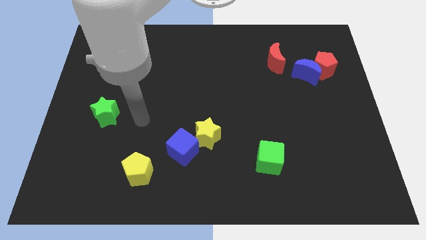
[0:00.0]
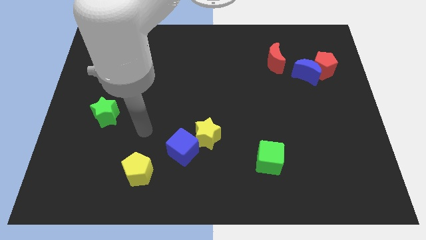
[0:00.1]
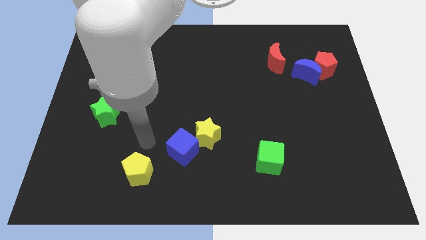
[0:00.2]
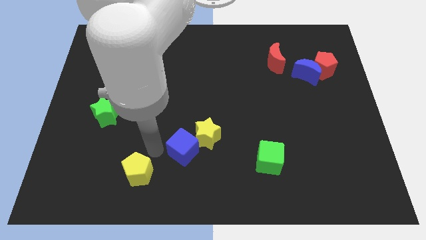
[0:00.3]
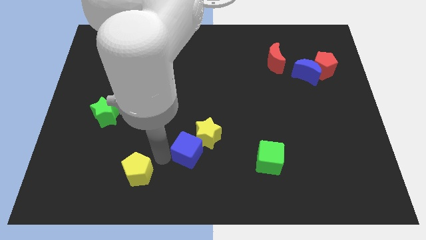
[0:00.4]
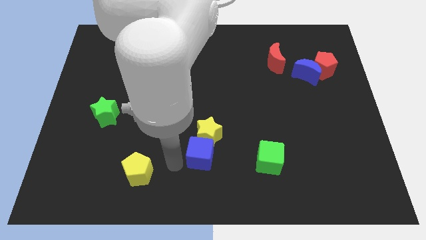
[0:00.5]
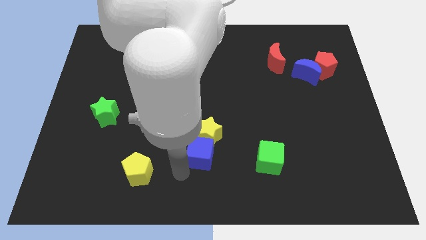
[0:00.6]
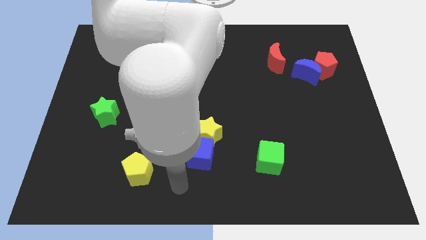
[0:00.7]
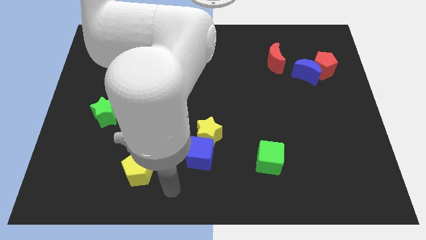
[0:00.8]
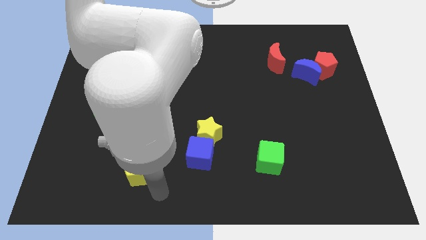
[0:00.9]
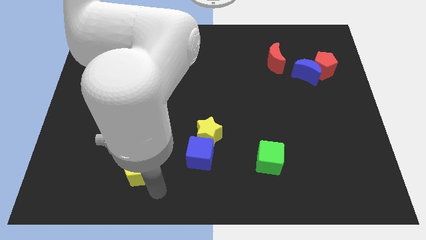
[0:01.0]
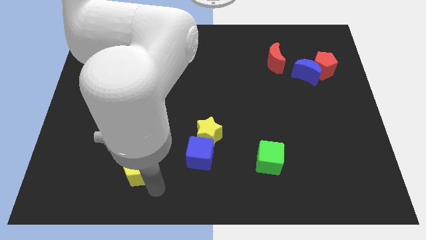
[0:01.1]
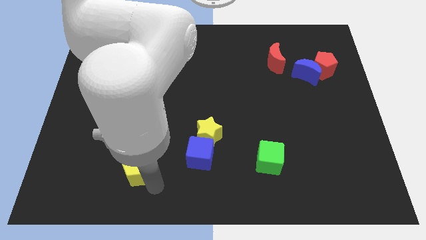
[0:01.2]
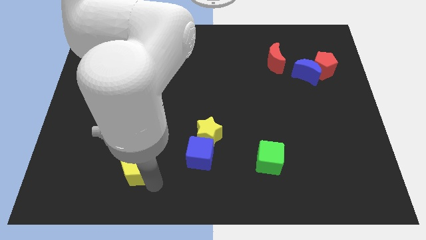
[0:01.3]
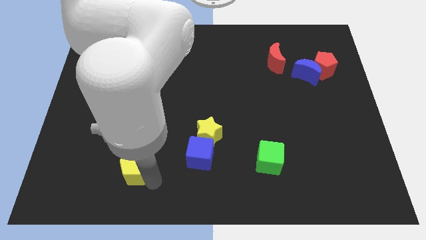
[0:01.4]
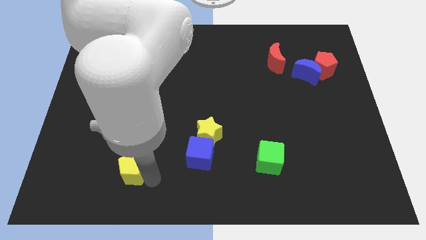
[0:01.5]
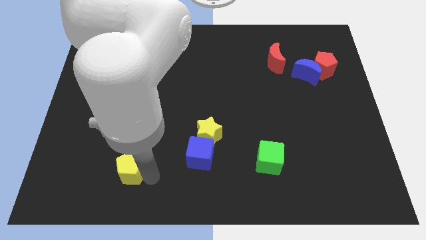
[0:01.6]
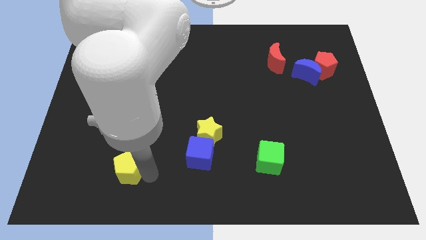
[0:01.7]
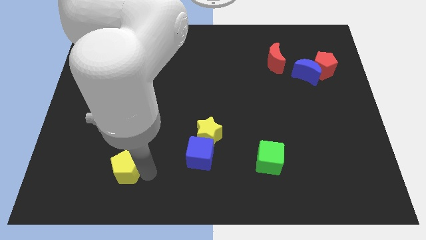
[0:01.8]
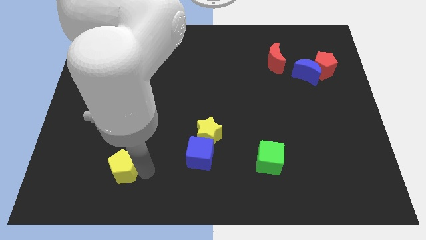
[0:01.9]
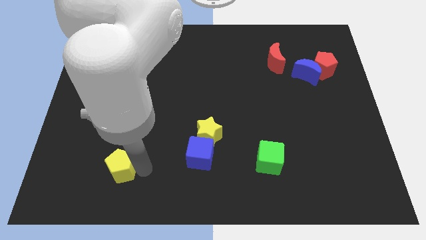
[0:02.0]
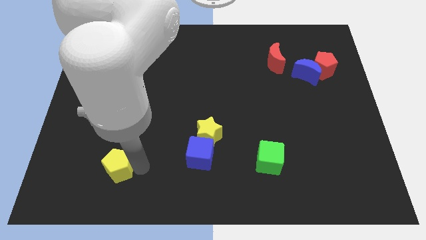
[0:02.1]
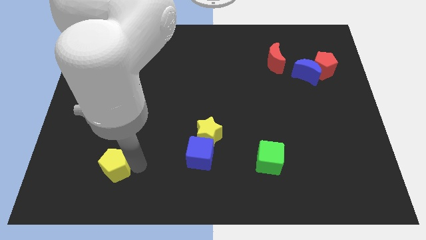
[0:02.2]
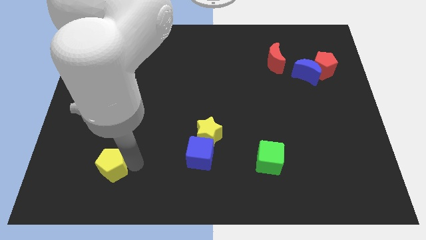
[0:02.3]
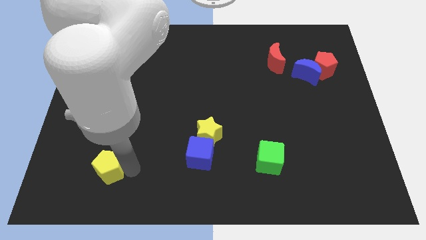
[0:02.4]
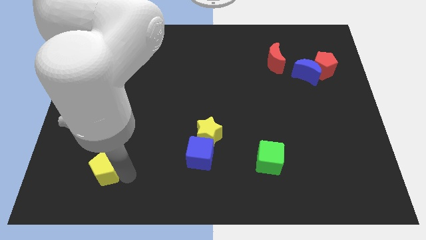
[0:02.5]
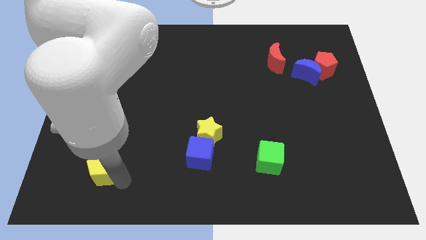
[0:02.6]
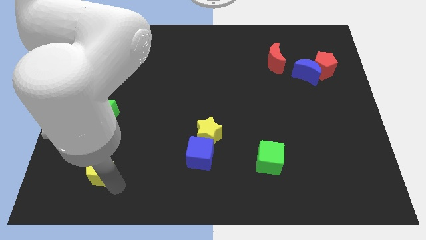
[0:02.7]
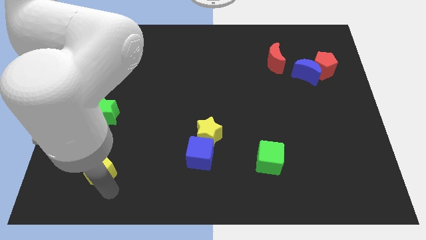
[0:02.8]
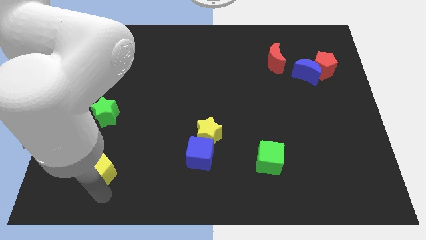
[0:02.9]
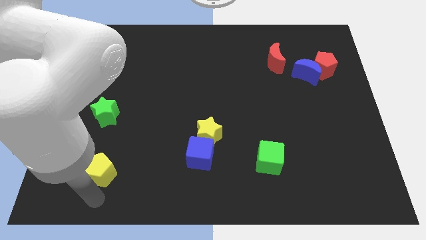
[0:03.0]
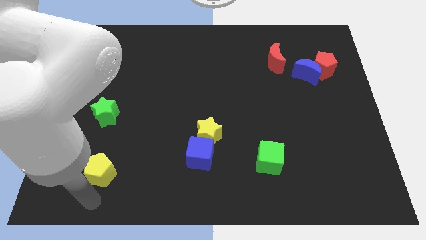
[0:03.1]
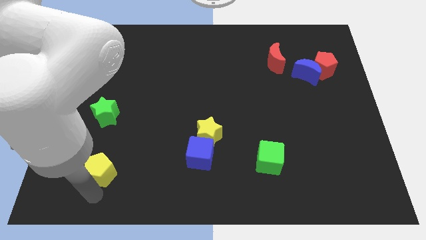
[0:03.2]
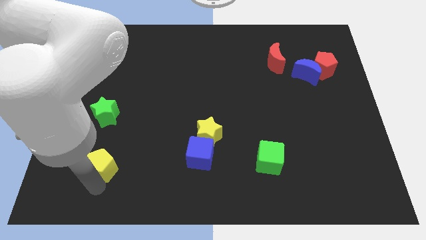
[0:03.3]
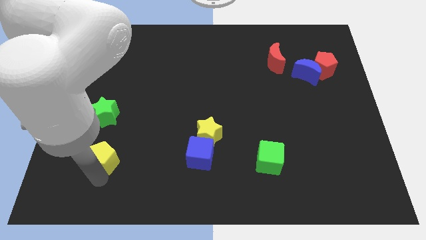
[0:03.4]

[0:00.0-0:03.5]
slightly push the yellow pentagon up and to the left

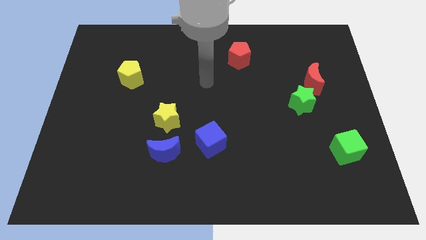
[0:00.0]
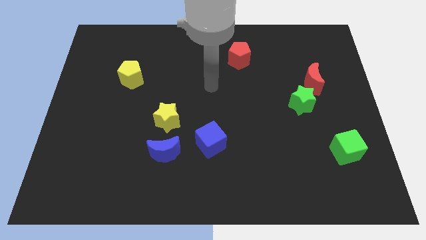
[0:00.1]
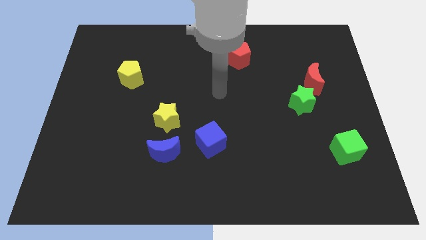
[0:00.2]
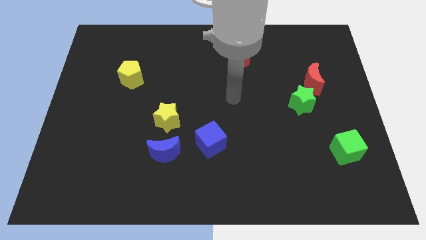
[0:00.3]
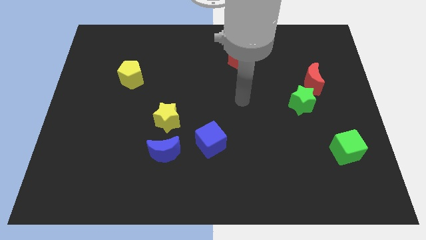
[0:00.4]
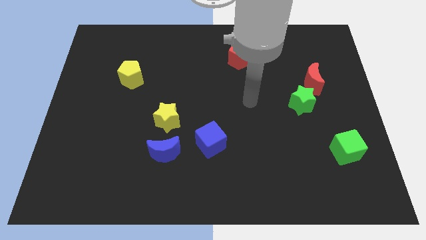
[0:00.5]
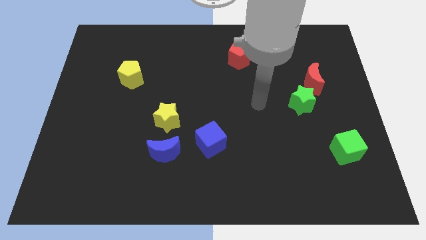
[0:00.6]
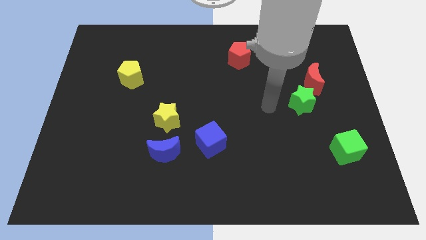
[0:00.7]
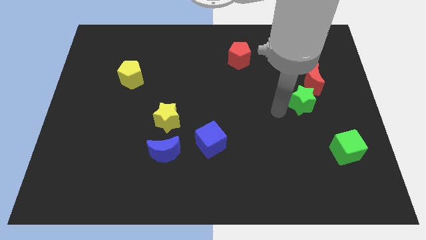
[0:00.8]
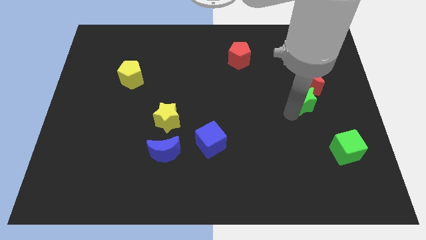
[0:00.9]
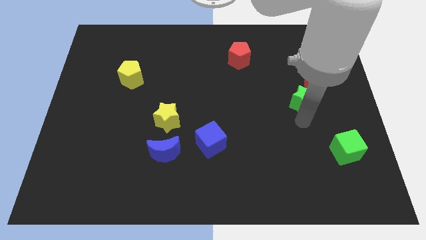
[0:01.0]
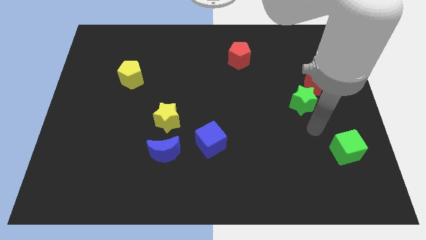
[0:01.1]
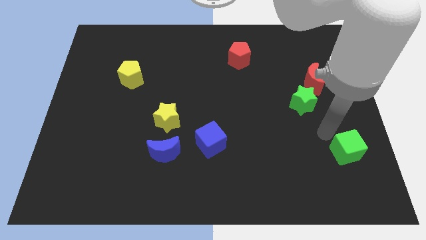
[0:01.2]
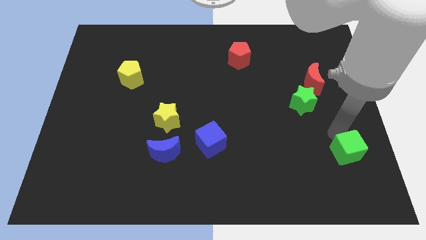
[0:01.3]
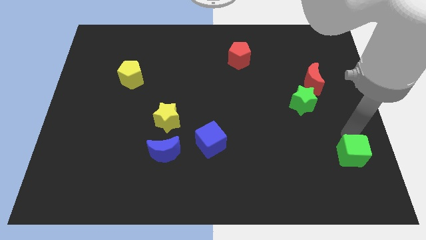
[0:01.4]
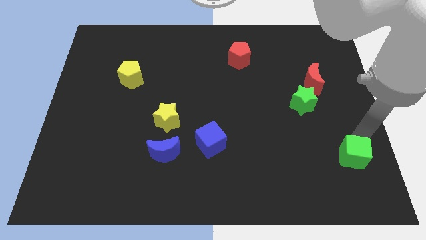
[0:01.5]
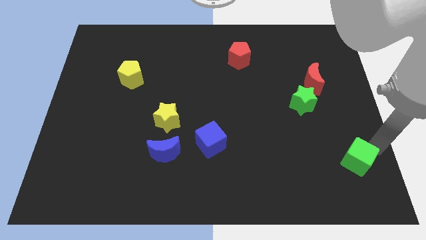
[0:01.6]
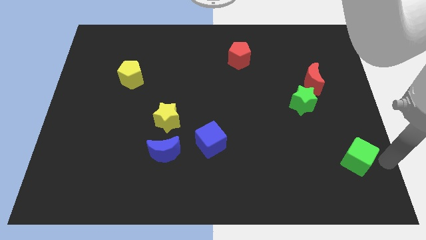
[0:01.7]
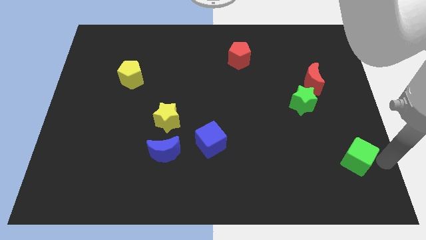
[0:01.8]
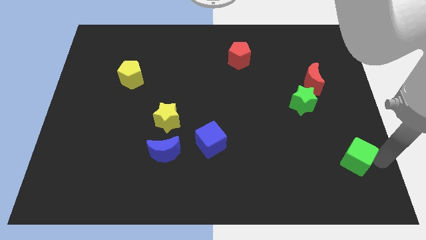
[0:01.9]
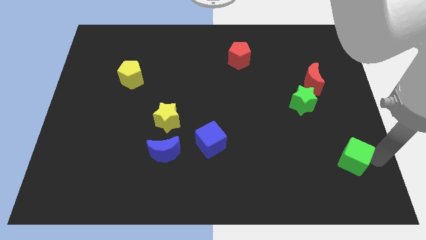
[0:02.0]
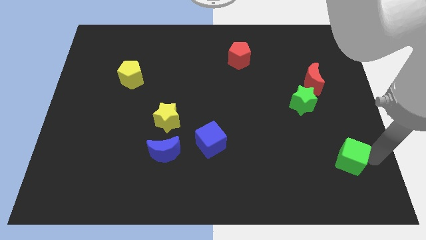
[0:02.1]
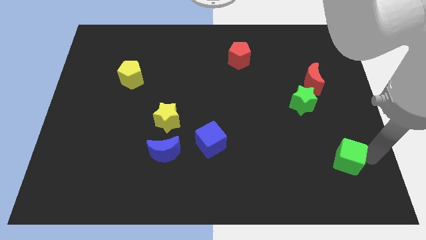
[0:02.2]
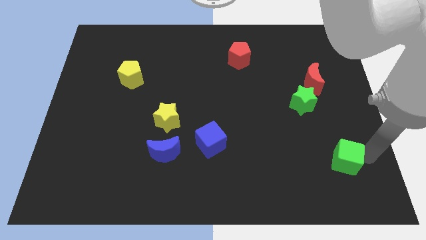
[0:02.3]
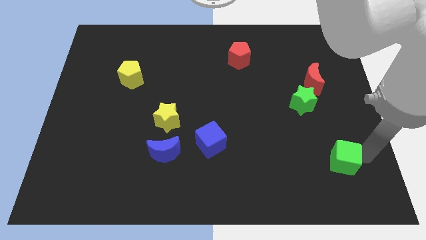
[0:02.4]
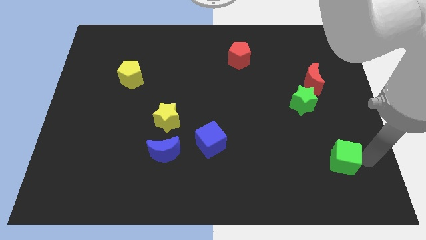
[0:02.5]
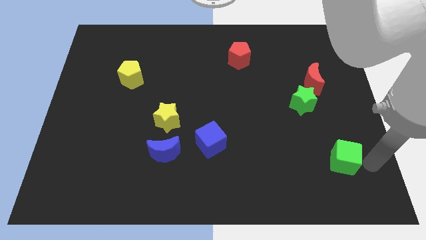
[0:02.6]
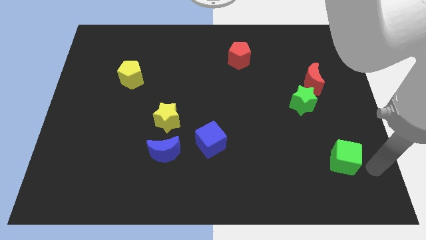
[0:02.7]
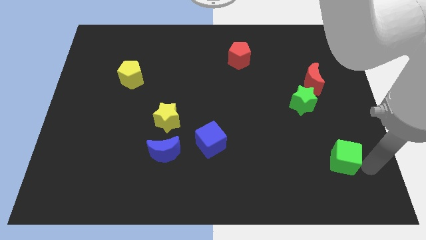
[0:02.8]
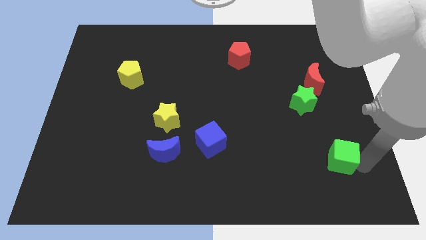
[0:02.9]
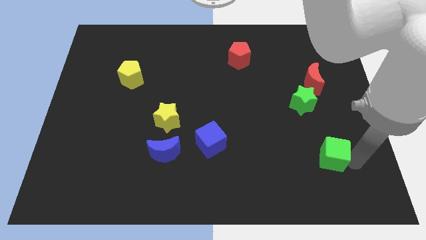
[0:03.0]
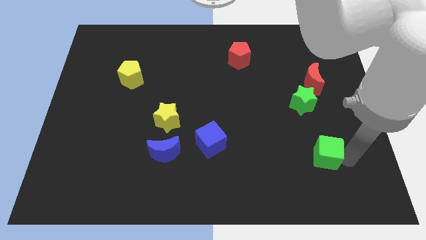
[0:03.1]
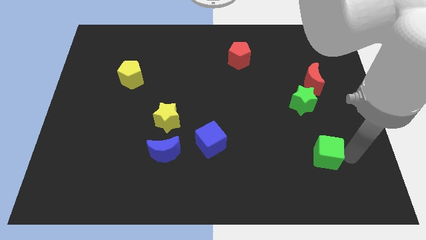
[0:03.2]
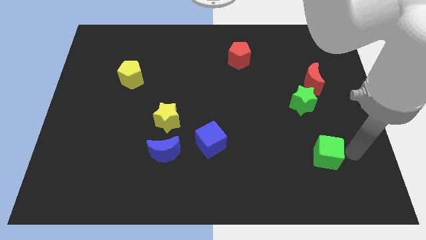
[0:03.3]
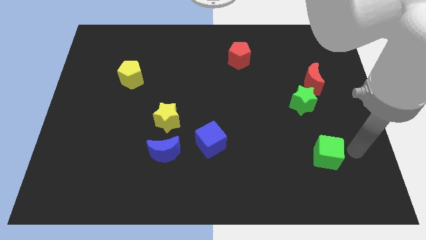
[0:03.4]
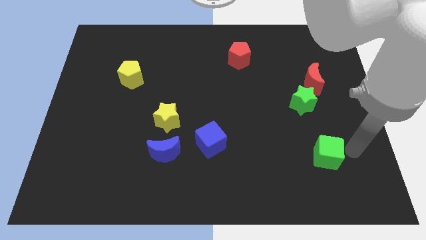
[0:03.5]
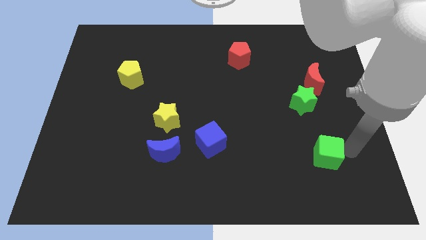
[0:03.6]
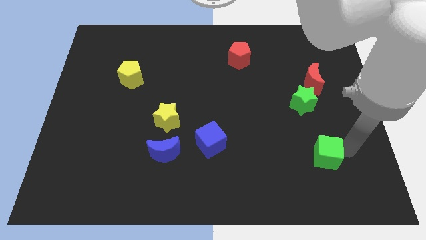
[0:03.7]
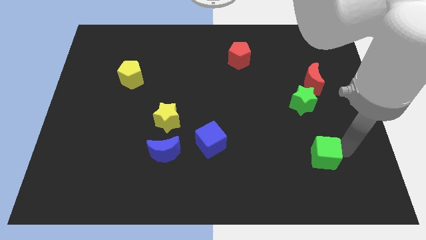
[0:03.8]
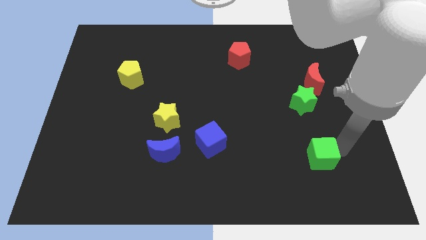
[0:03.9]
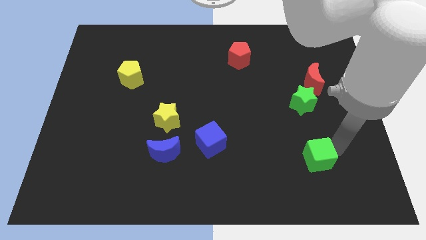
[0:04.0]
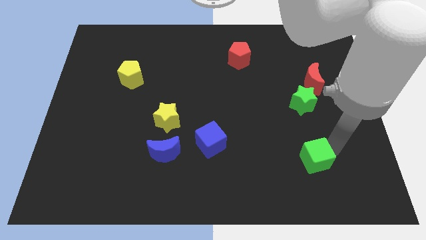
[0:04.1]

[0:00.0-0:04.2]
push the green cube a little bit to the left
